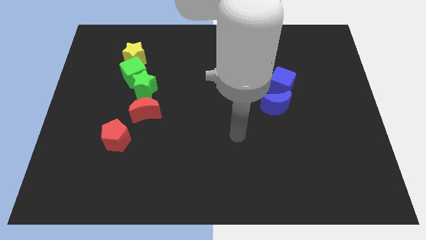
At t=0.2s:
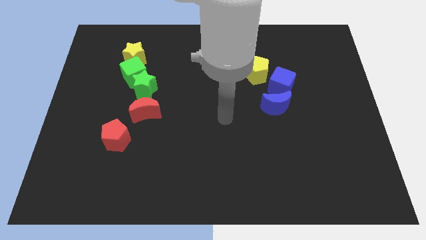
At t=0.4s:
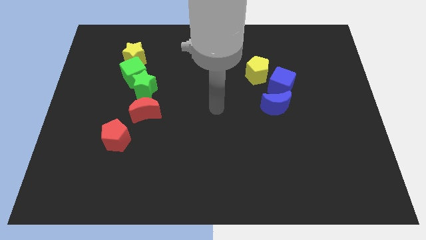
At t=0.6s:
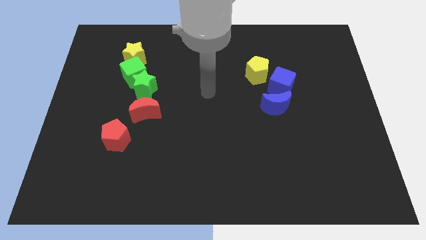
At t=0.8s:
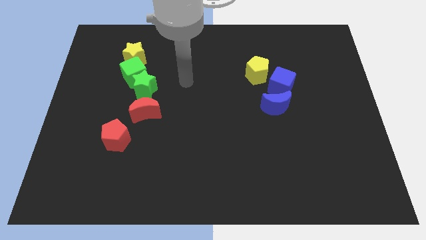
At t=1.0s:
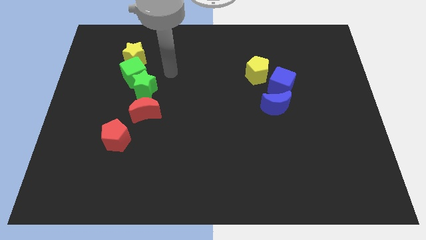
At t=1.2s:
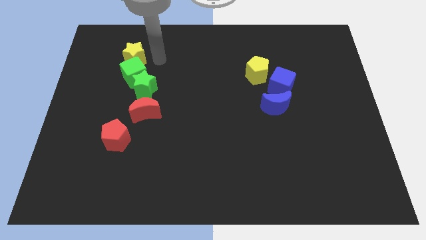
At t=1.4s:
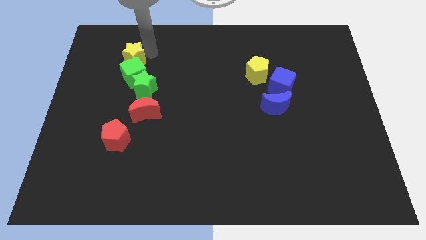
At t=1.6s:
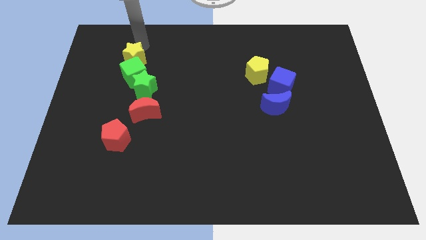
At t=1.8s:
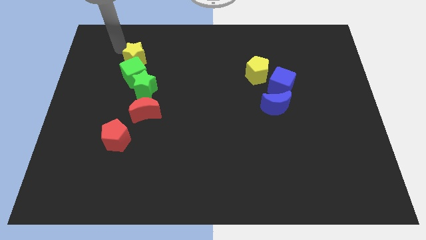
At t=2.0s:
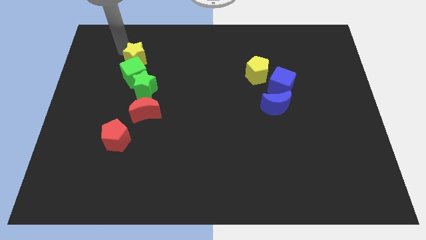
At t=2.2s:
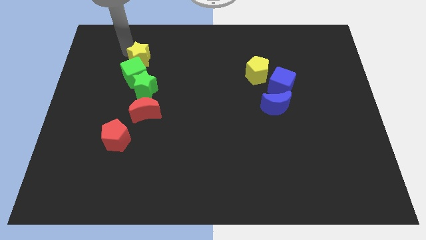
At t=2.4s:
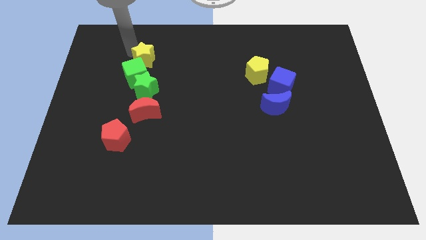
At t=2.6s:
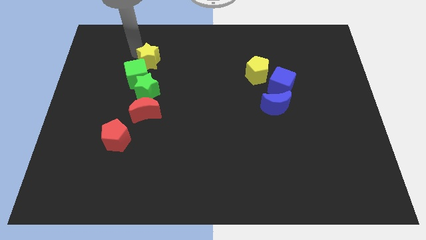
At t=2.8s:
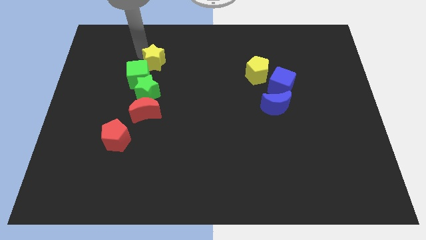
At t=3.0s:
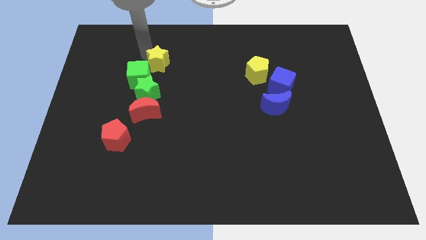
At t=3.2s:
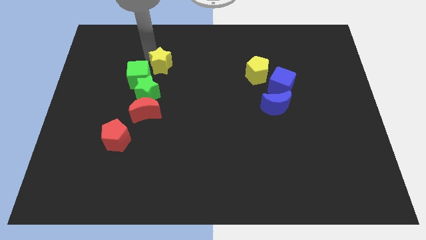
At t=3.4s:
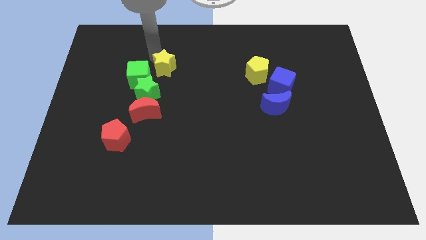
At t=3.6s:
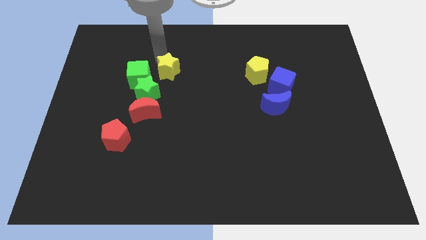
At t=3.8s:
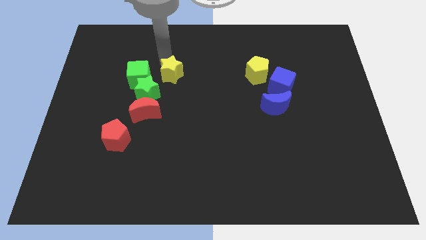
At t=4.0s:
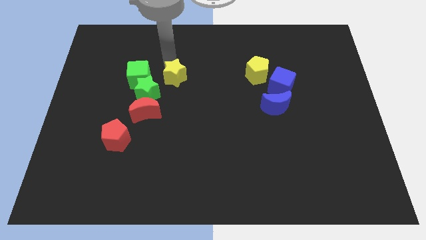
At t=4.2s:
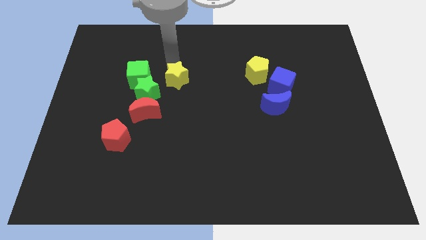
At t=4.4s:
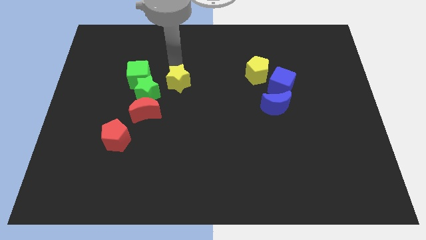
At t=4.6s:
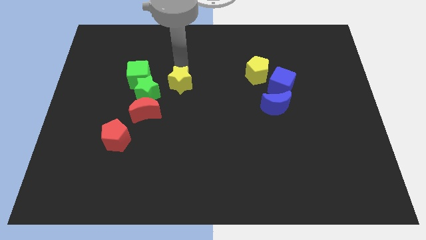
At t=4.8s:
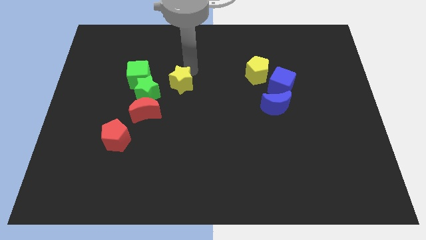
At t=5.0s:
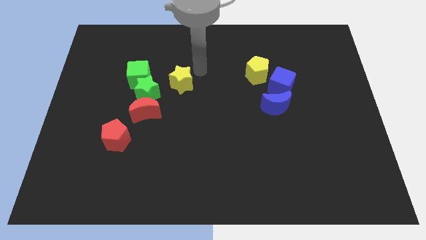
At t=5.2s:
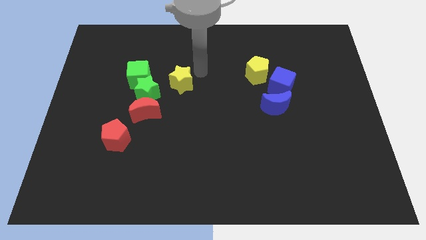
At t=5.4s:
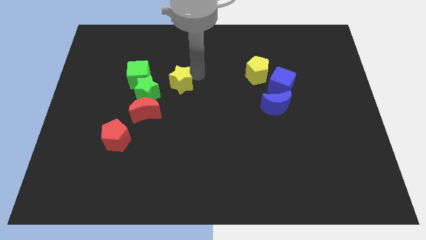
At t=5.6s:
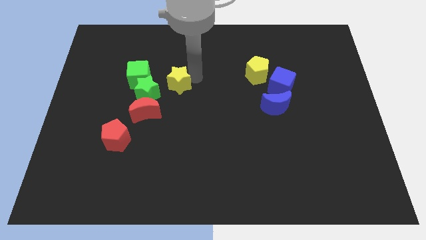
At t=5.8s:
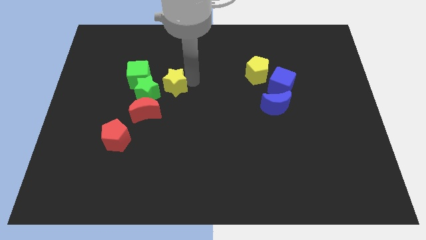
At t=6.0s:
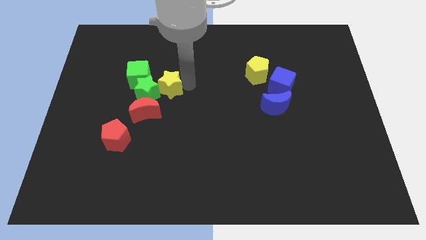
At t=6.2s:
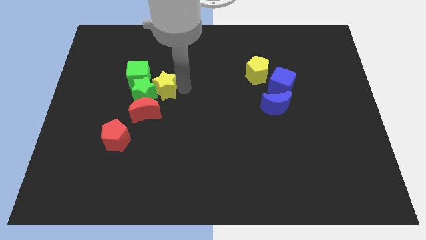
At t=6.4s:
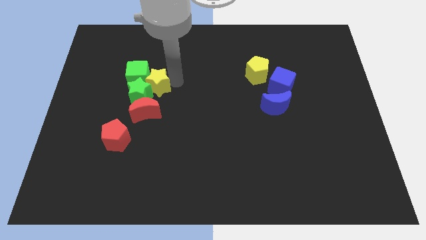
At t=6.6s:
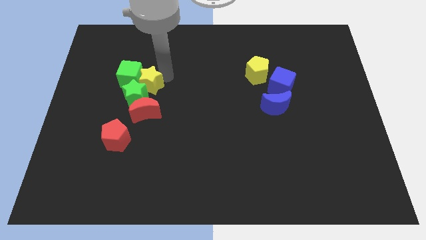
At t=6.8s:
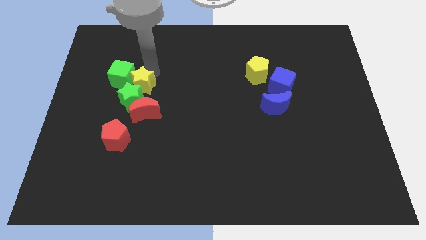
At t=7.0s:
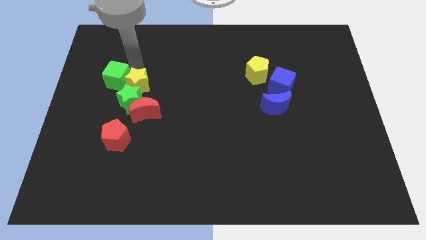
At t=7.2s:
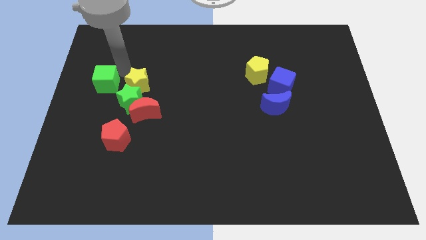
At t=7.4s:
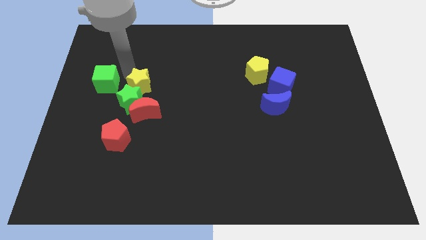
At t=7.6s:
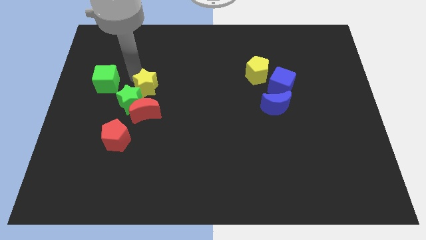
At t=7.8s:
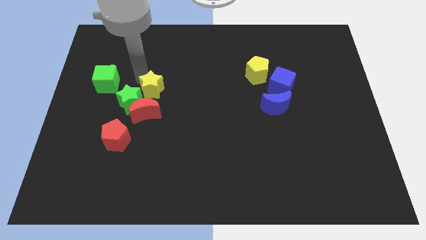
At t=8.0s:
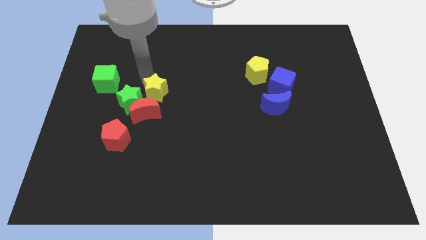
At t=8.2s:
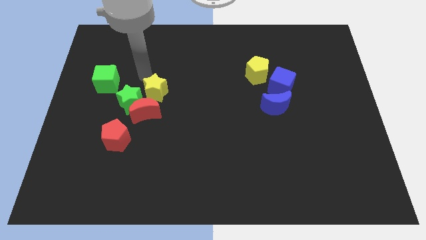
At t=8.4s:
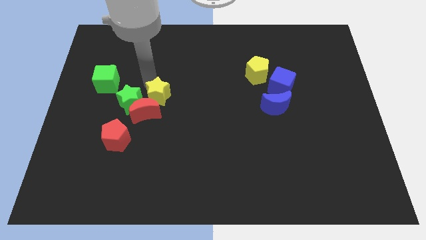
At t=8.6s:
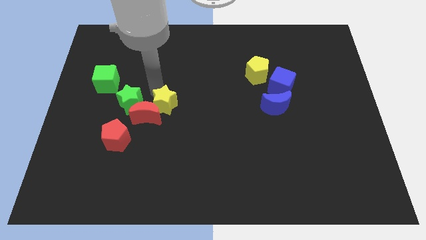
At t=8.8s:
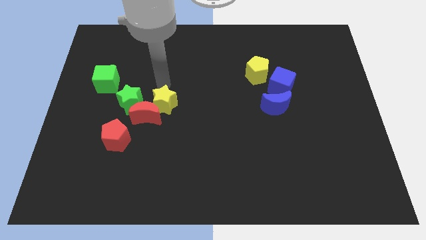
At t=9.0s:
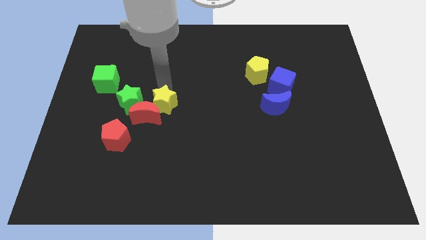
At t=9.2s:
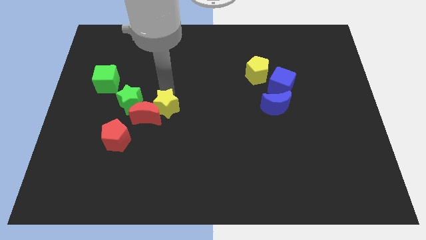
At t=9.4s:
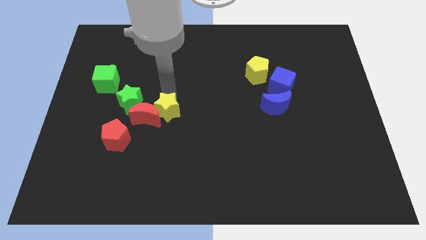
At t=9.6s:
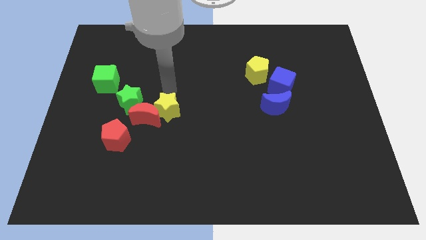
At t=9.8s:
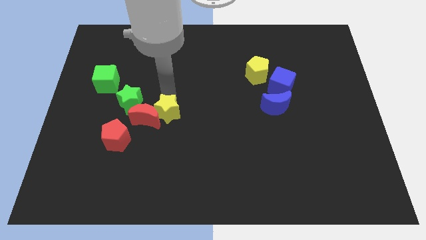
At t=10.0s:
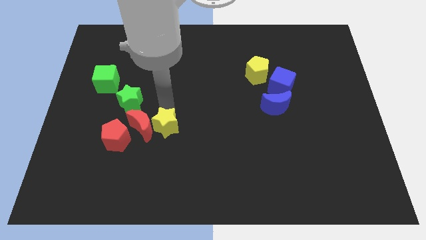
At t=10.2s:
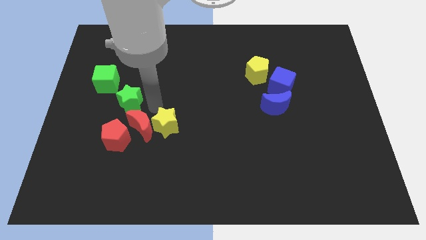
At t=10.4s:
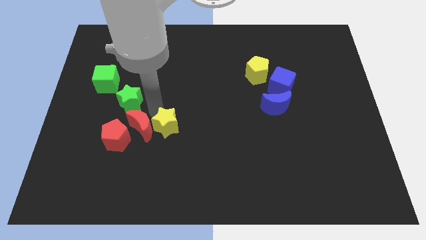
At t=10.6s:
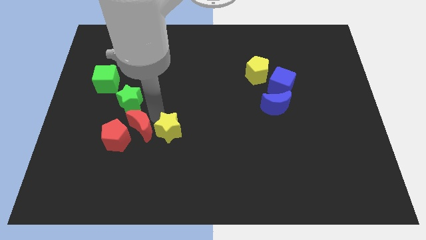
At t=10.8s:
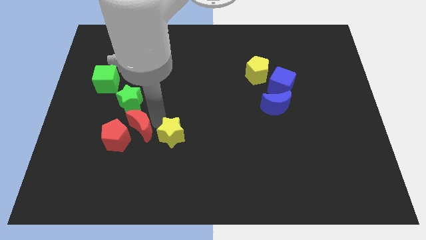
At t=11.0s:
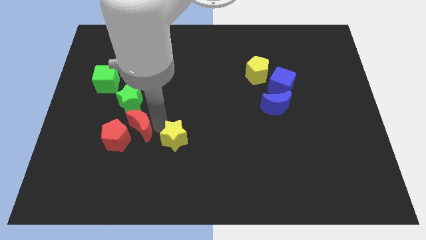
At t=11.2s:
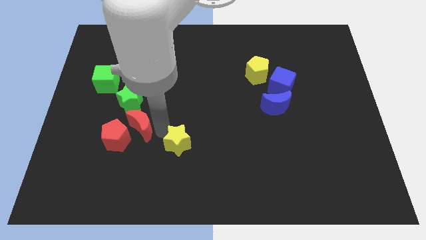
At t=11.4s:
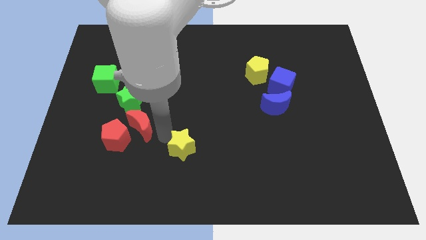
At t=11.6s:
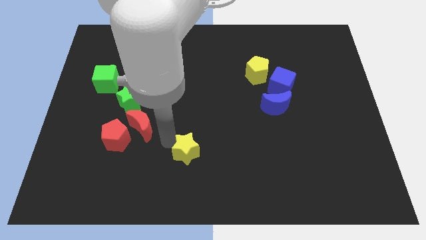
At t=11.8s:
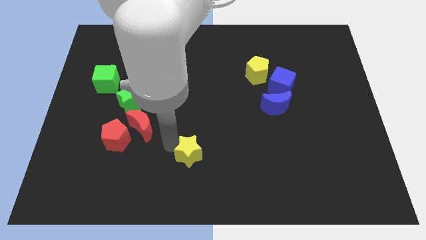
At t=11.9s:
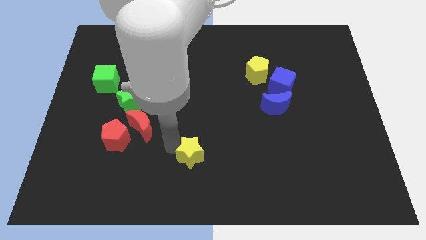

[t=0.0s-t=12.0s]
slide the yellow star to the bottom side

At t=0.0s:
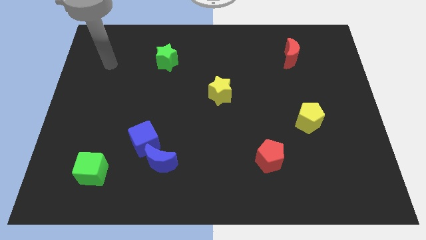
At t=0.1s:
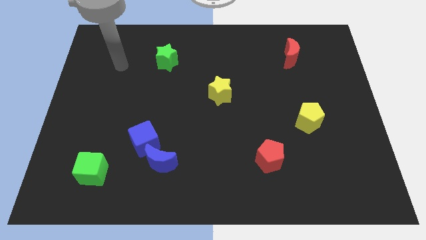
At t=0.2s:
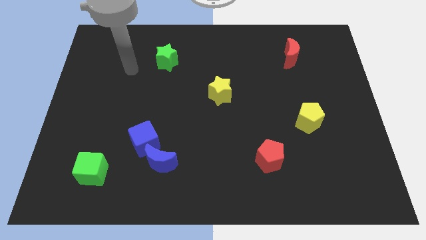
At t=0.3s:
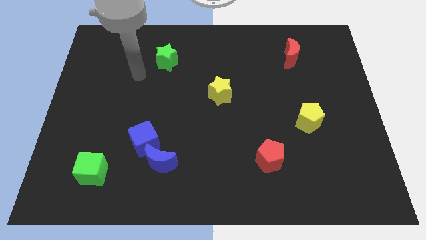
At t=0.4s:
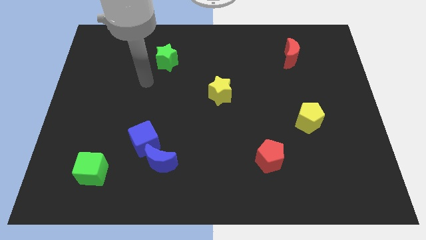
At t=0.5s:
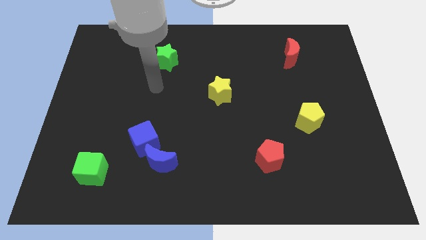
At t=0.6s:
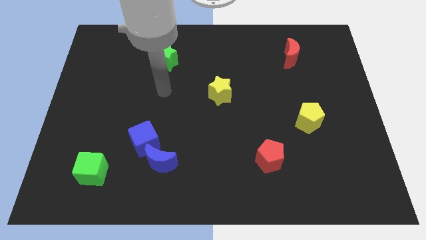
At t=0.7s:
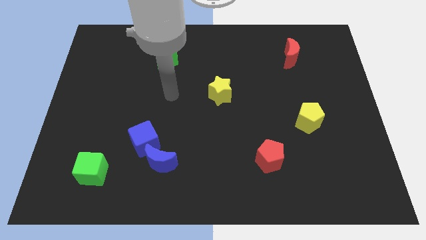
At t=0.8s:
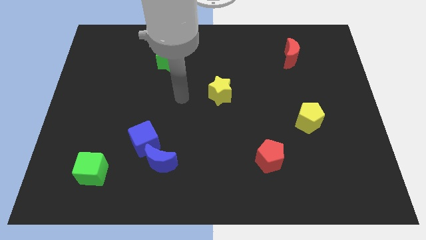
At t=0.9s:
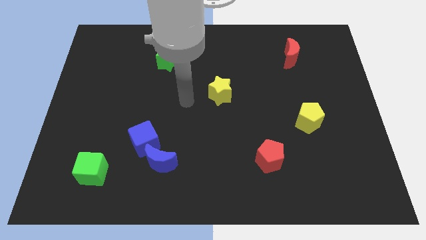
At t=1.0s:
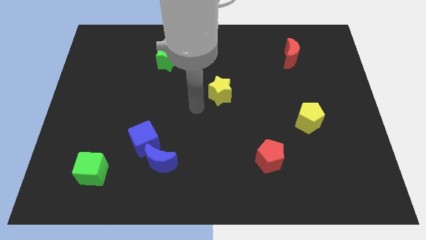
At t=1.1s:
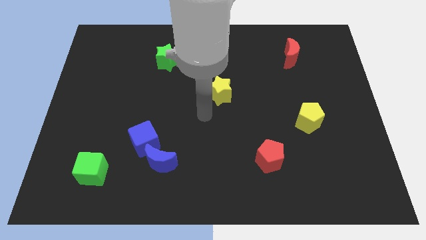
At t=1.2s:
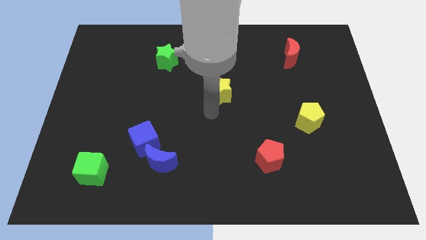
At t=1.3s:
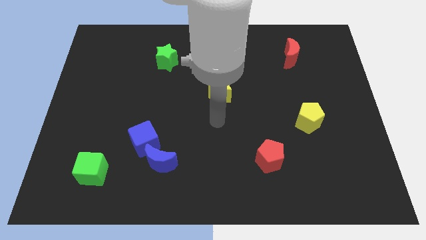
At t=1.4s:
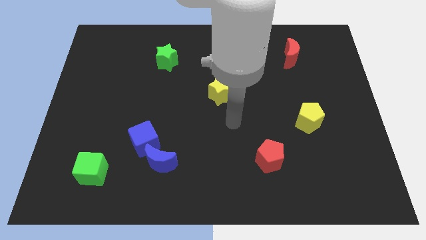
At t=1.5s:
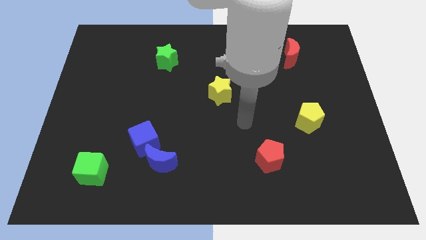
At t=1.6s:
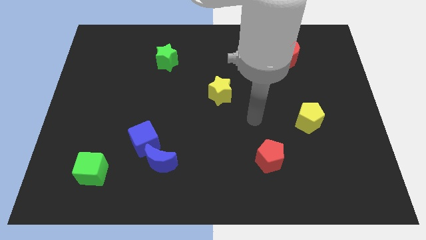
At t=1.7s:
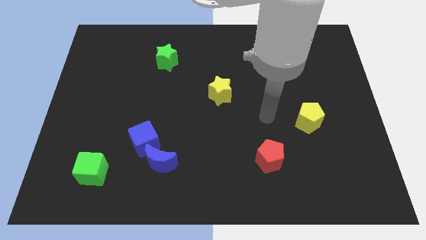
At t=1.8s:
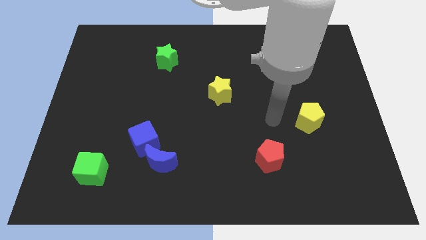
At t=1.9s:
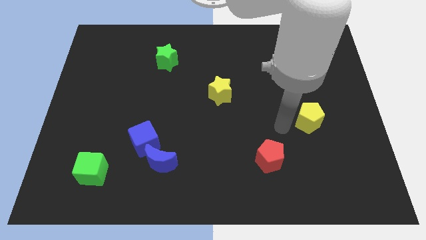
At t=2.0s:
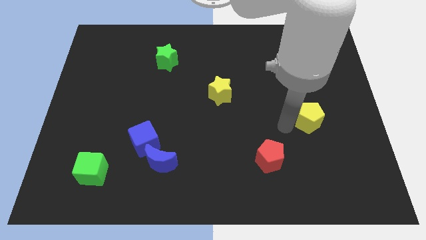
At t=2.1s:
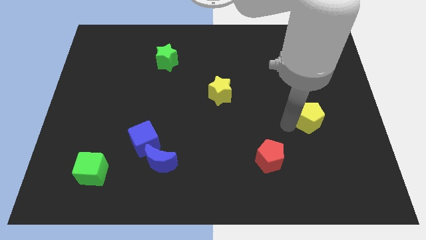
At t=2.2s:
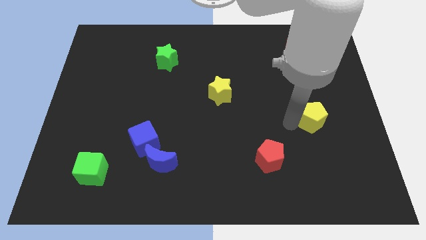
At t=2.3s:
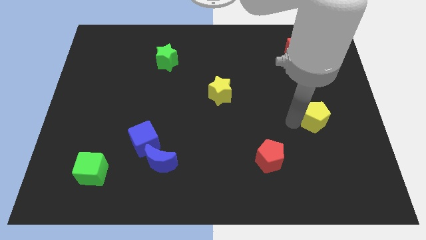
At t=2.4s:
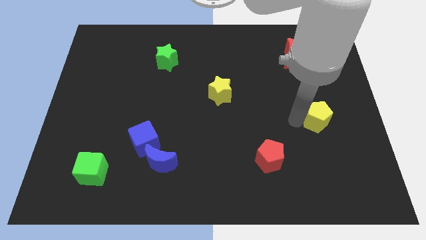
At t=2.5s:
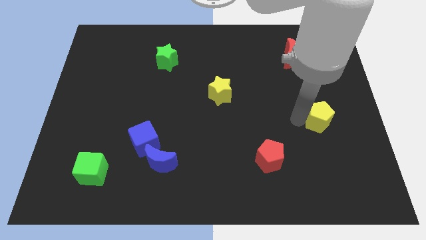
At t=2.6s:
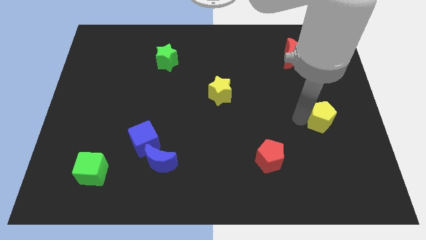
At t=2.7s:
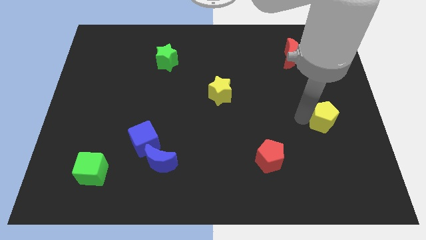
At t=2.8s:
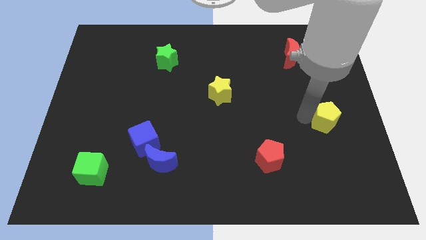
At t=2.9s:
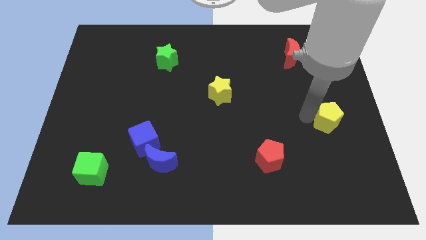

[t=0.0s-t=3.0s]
put the yellow pentagon to the center right
